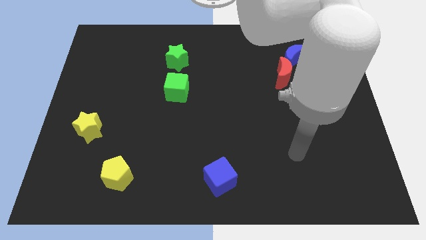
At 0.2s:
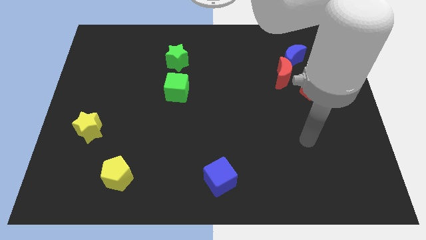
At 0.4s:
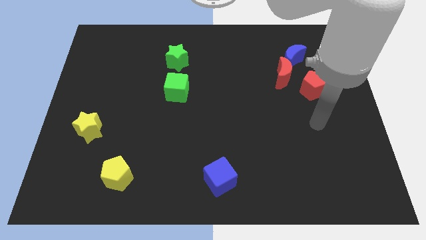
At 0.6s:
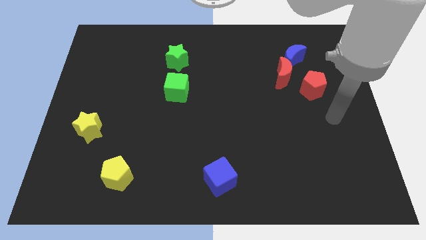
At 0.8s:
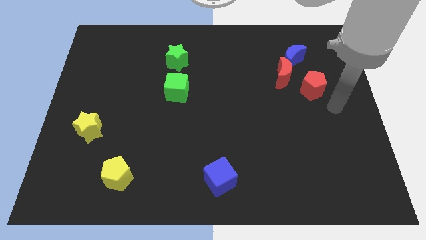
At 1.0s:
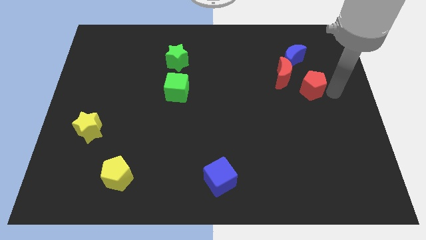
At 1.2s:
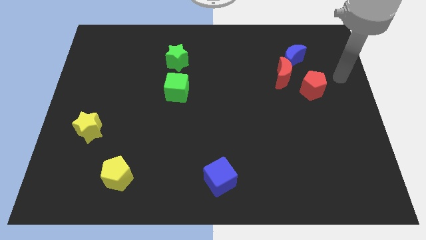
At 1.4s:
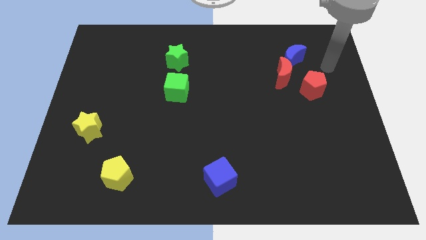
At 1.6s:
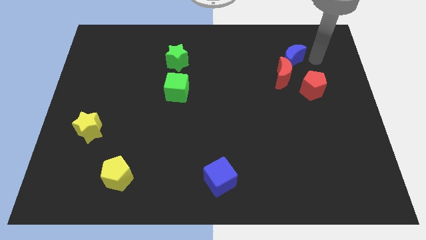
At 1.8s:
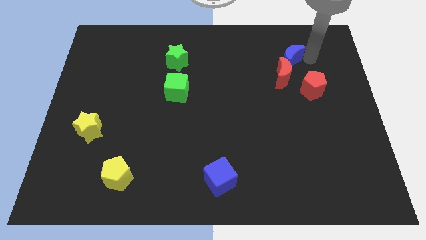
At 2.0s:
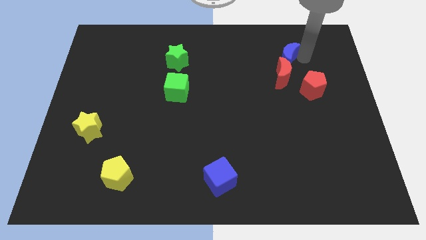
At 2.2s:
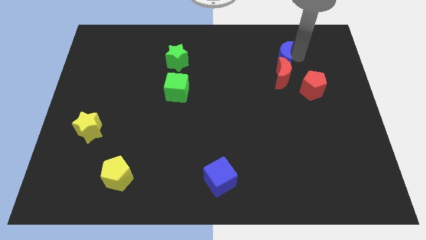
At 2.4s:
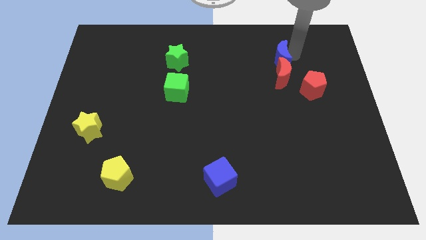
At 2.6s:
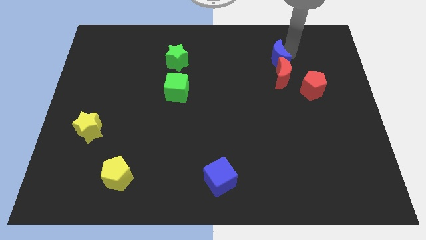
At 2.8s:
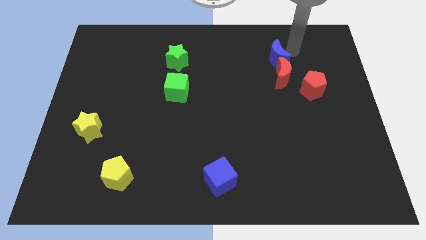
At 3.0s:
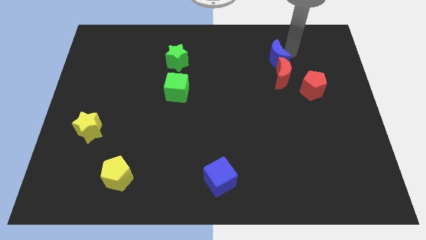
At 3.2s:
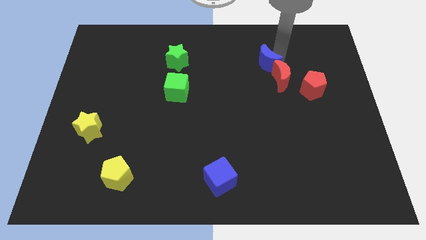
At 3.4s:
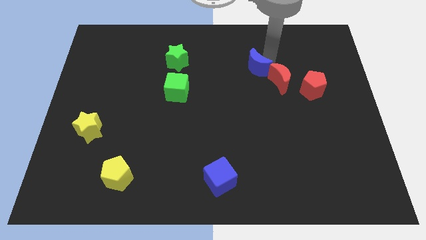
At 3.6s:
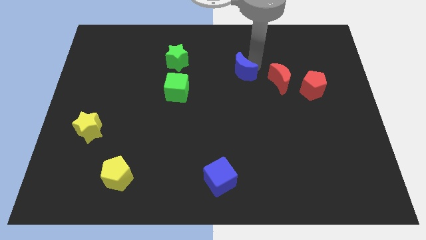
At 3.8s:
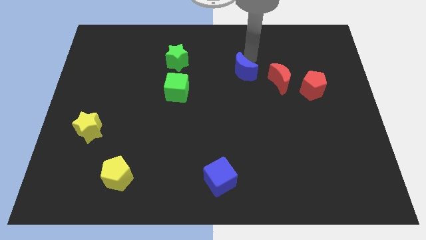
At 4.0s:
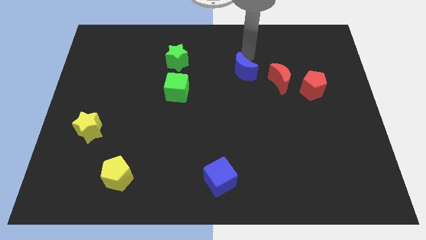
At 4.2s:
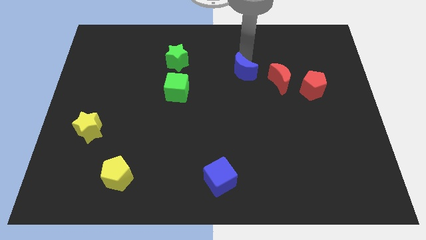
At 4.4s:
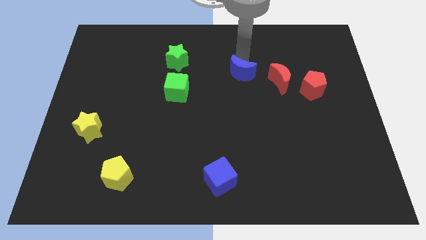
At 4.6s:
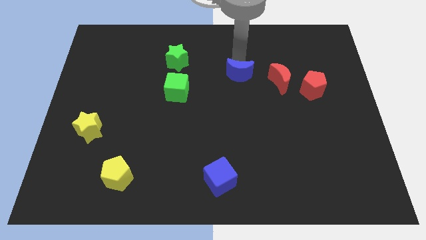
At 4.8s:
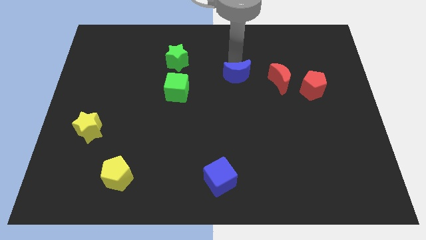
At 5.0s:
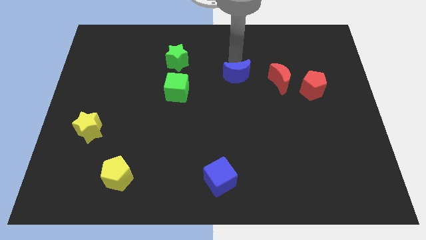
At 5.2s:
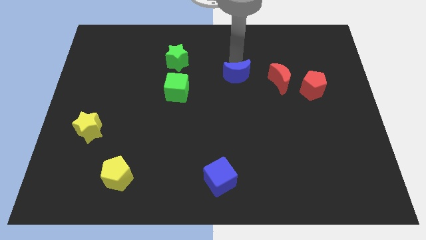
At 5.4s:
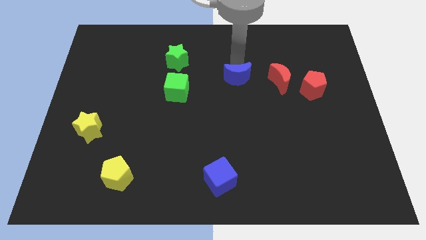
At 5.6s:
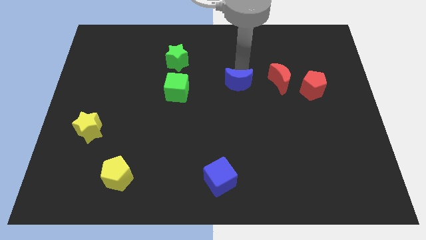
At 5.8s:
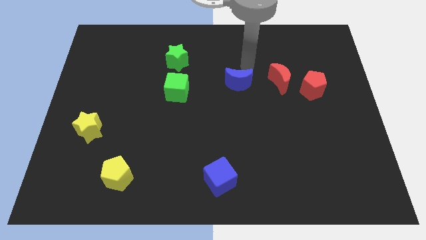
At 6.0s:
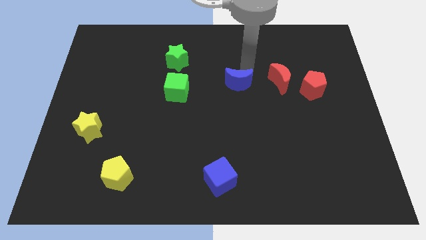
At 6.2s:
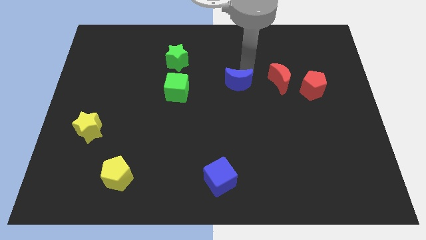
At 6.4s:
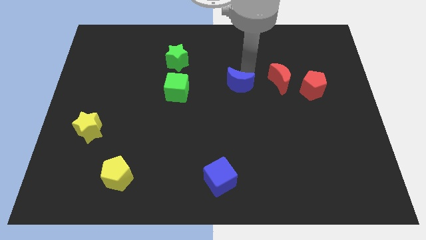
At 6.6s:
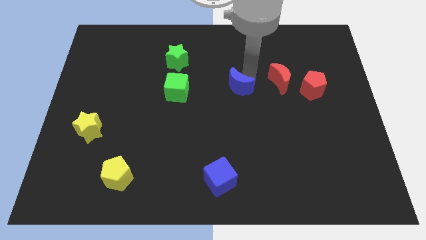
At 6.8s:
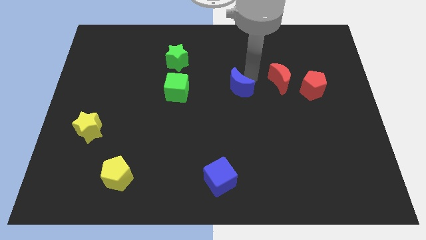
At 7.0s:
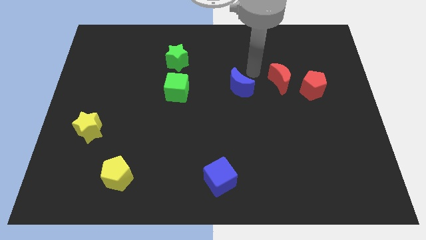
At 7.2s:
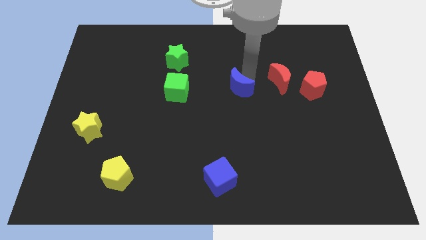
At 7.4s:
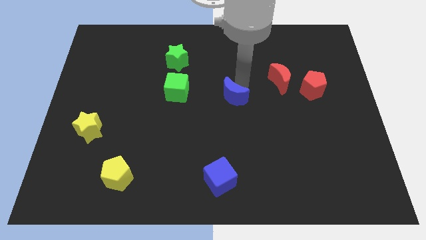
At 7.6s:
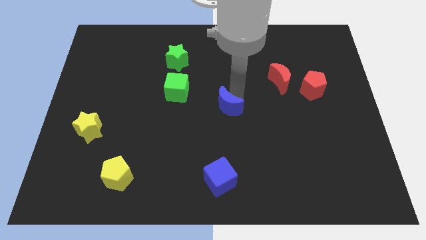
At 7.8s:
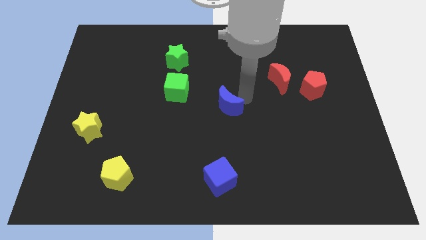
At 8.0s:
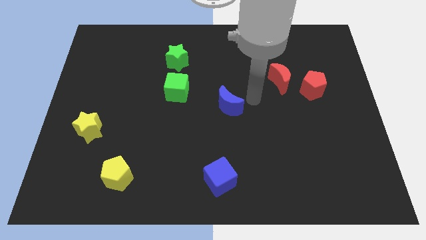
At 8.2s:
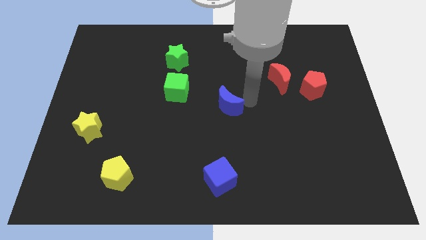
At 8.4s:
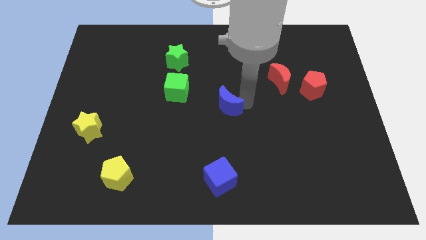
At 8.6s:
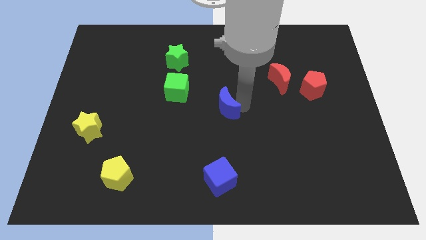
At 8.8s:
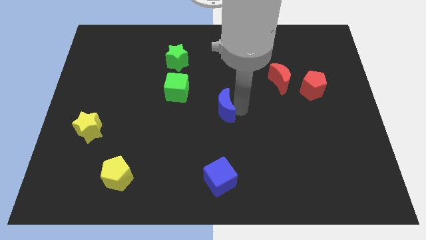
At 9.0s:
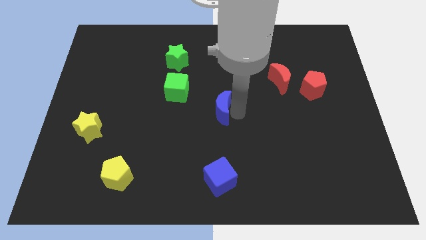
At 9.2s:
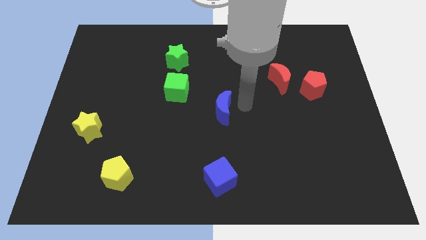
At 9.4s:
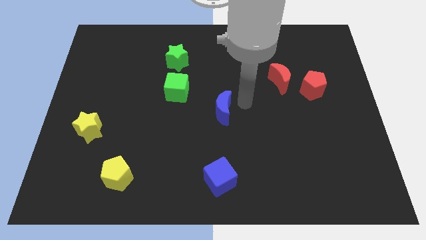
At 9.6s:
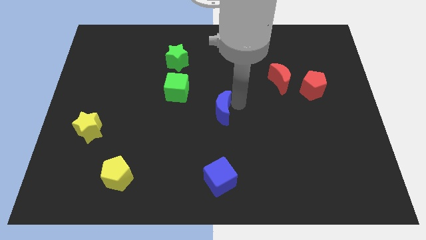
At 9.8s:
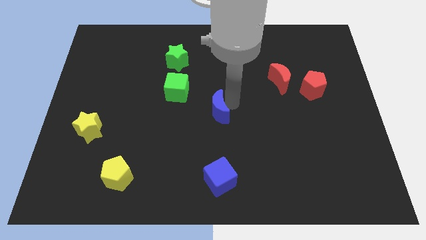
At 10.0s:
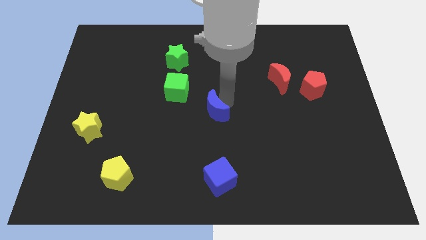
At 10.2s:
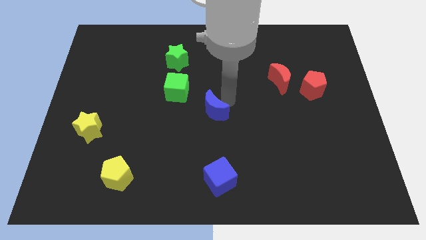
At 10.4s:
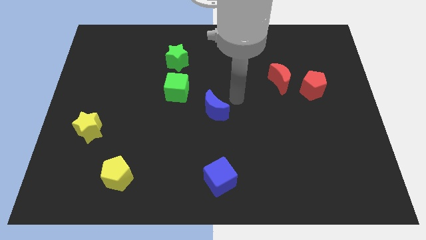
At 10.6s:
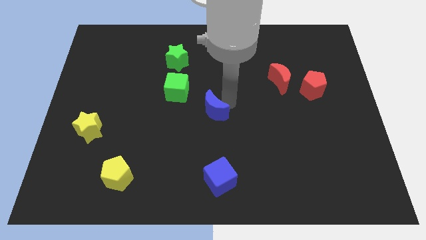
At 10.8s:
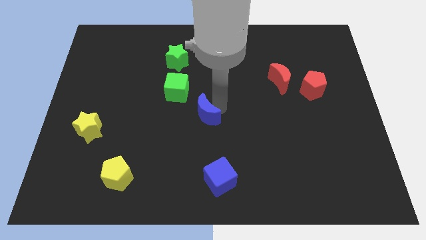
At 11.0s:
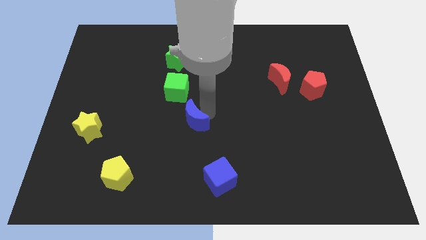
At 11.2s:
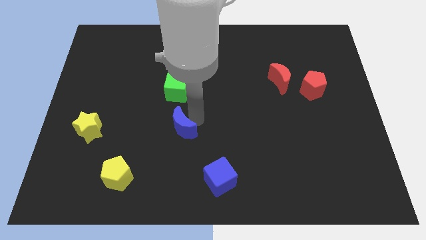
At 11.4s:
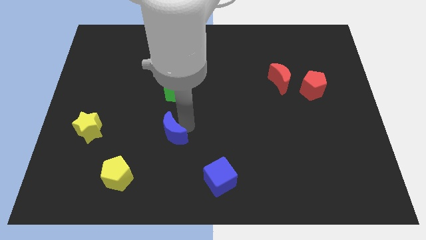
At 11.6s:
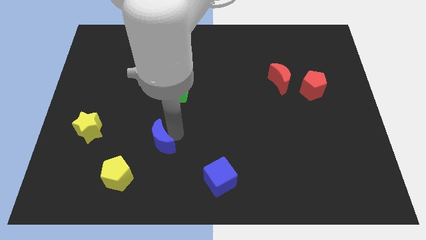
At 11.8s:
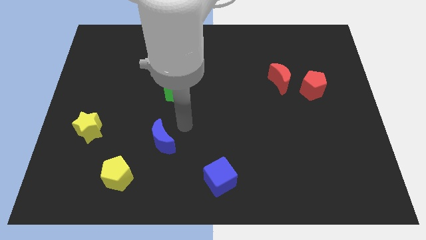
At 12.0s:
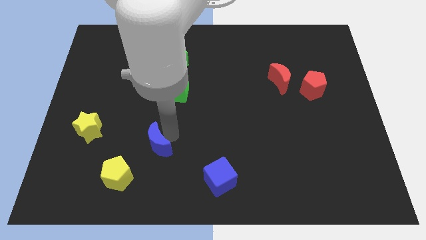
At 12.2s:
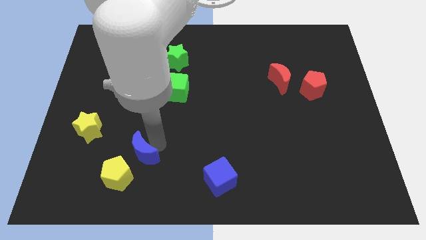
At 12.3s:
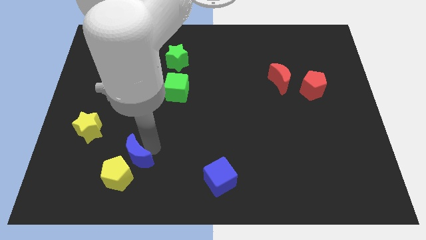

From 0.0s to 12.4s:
put the blue moon close to the yellow pentagon

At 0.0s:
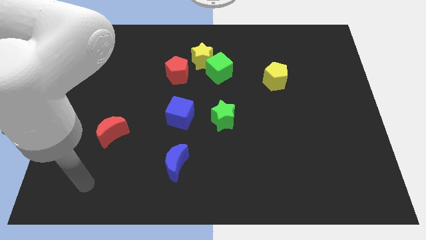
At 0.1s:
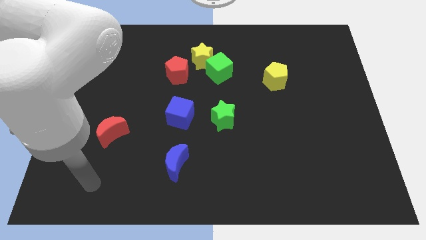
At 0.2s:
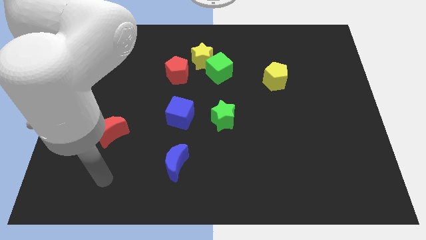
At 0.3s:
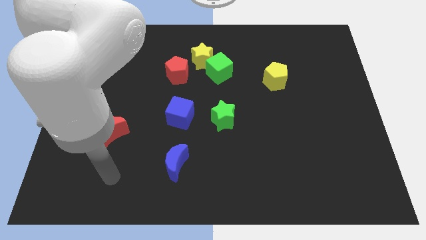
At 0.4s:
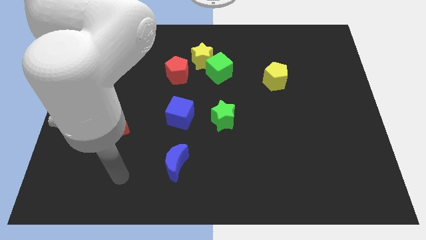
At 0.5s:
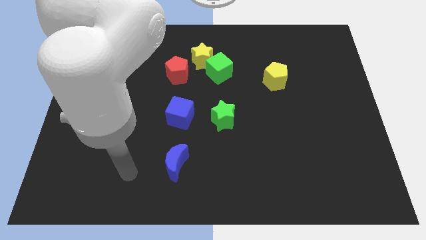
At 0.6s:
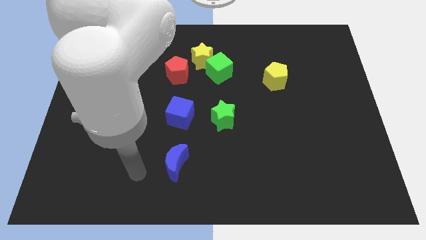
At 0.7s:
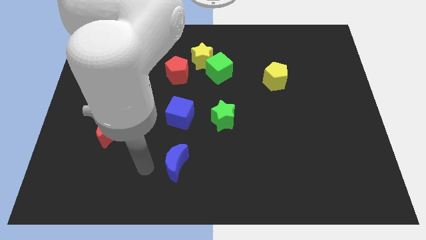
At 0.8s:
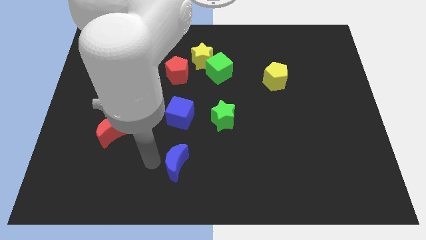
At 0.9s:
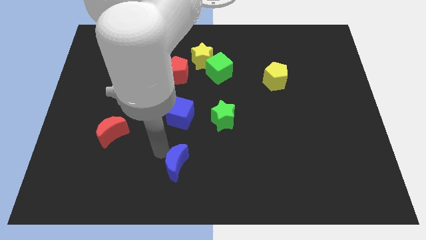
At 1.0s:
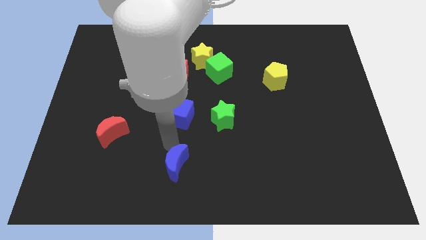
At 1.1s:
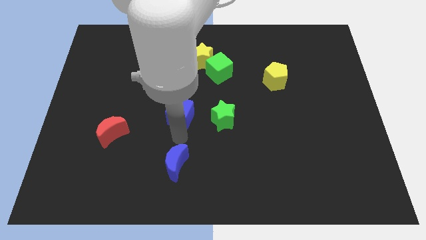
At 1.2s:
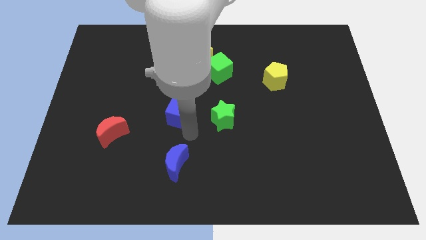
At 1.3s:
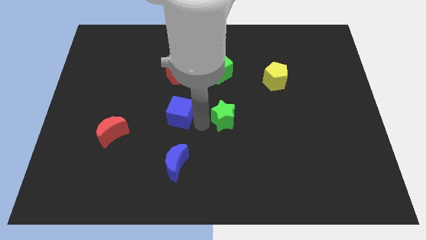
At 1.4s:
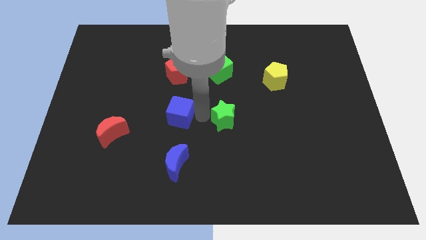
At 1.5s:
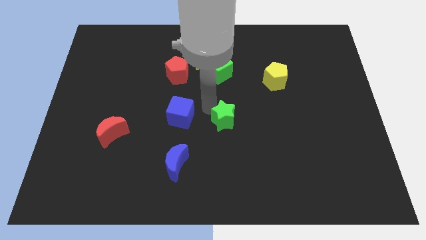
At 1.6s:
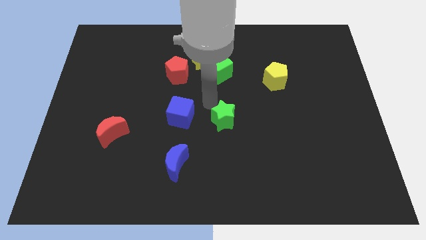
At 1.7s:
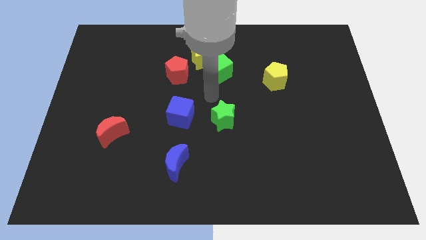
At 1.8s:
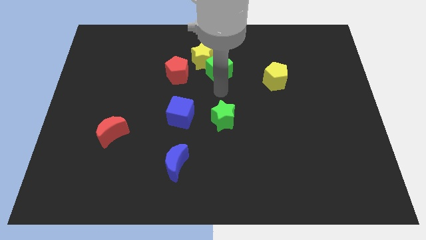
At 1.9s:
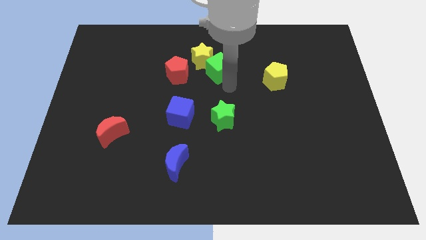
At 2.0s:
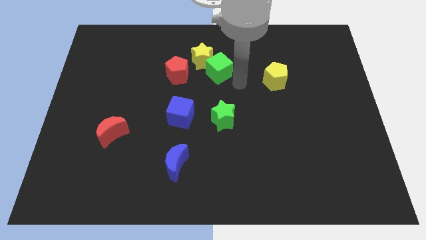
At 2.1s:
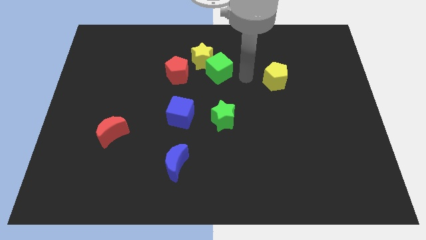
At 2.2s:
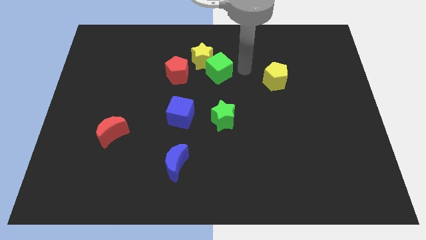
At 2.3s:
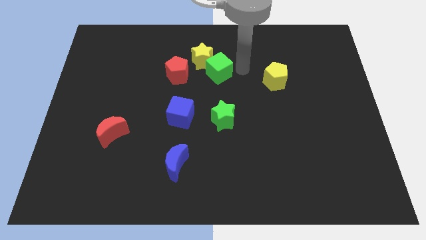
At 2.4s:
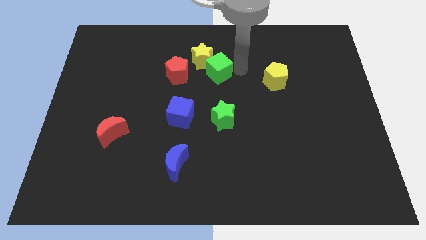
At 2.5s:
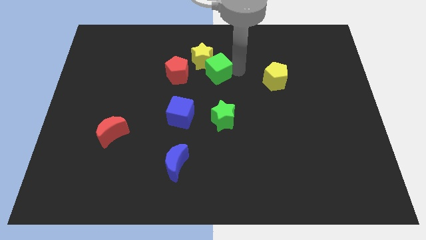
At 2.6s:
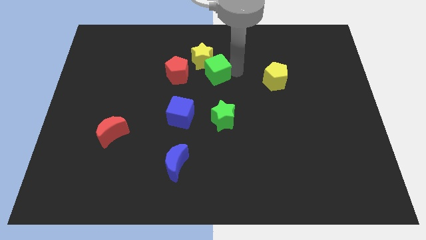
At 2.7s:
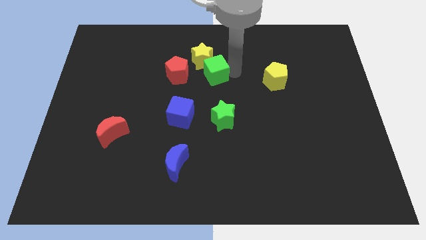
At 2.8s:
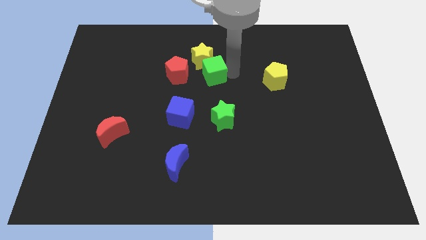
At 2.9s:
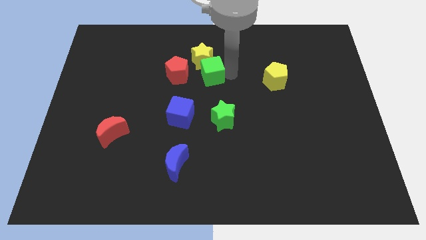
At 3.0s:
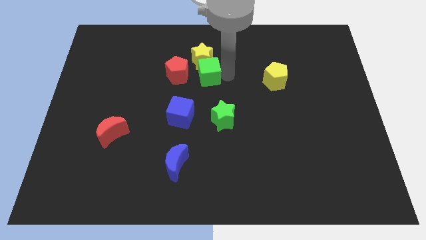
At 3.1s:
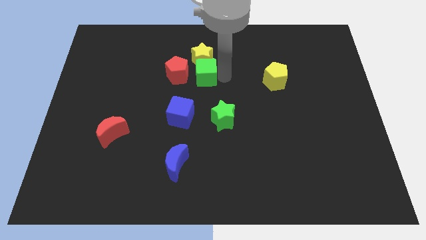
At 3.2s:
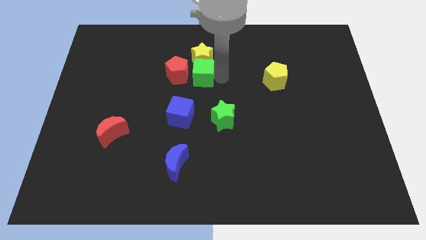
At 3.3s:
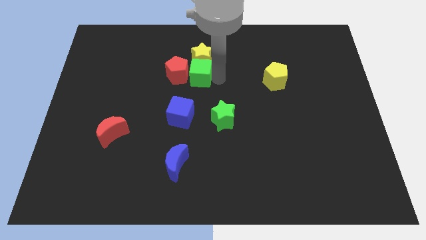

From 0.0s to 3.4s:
move the green cube towards the red pentagon
